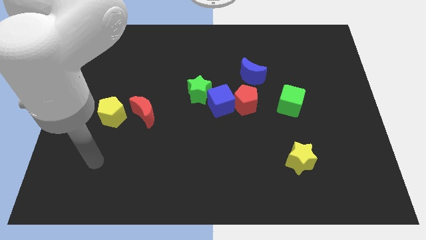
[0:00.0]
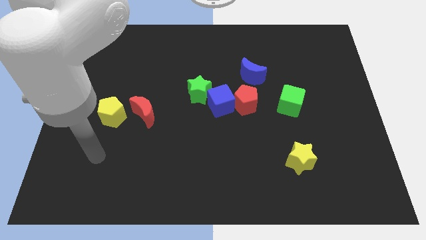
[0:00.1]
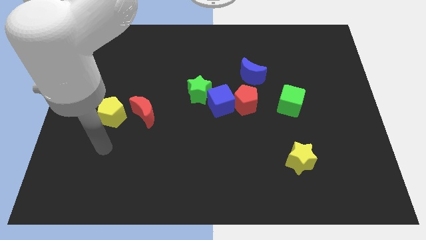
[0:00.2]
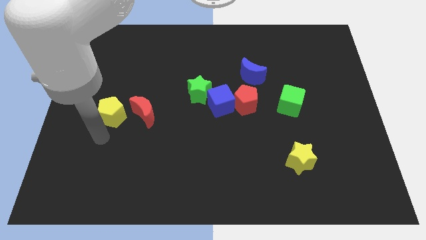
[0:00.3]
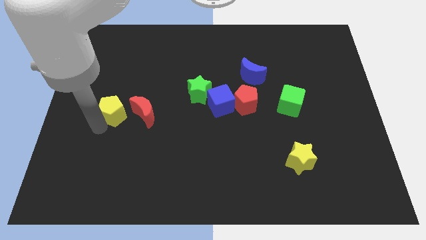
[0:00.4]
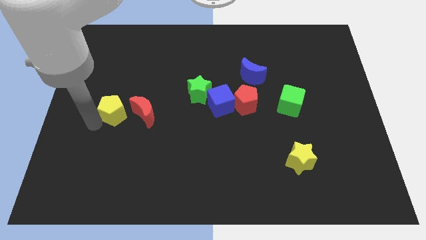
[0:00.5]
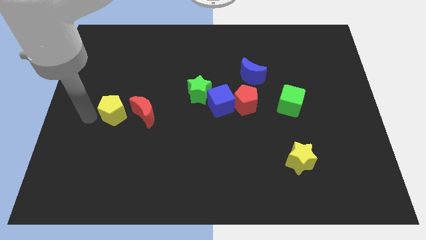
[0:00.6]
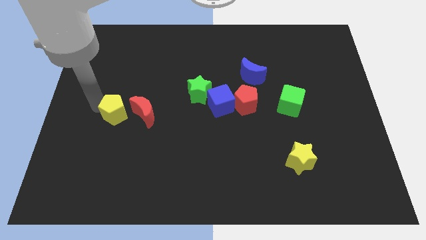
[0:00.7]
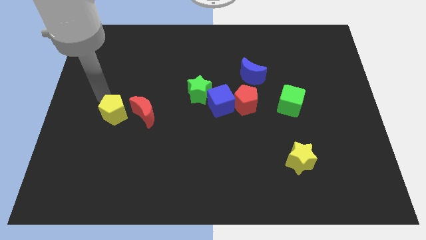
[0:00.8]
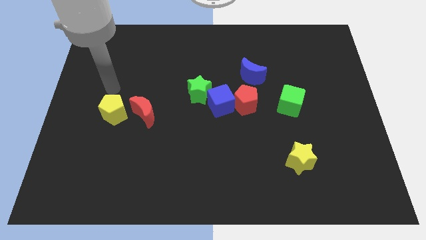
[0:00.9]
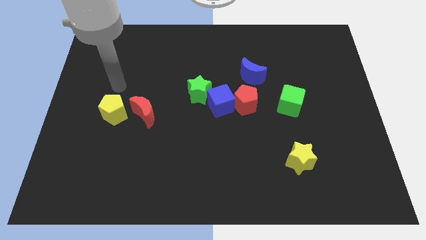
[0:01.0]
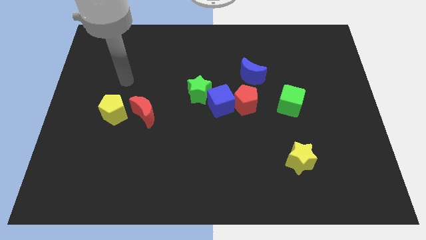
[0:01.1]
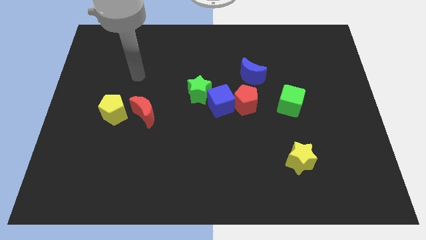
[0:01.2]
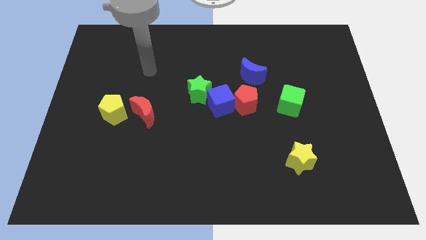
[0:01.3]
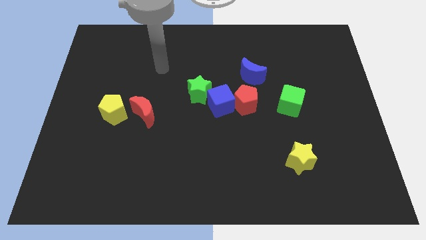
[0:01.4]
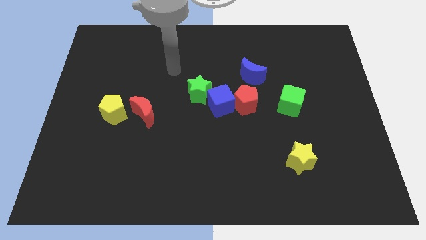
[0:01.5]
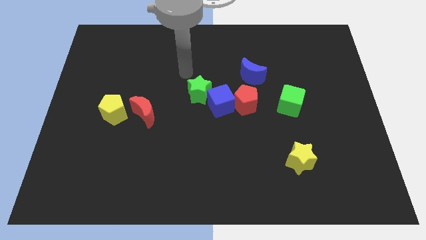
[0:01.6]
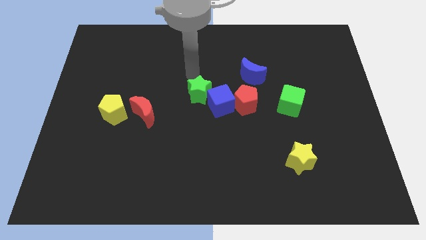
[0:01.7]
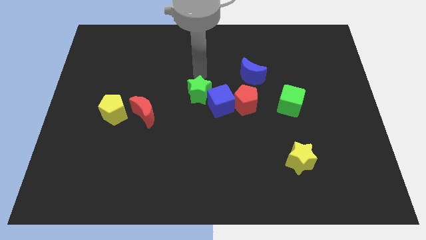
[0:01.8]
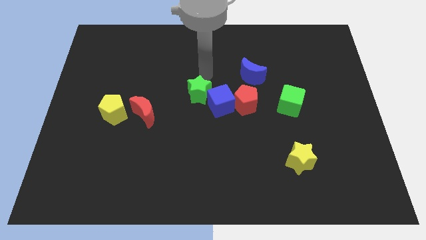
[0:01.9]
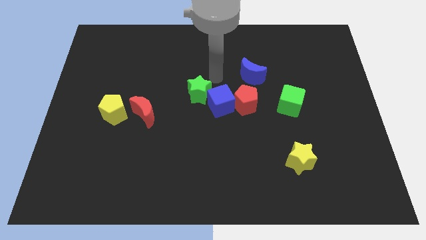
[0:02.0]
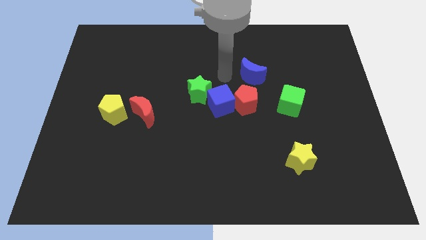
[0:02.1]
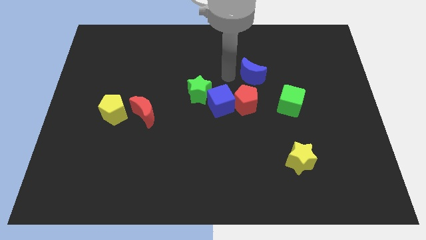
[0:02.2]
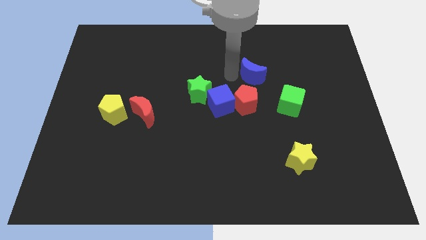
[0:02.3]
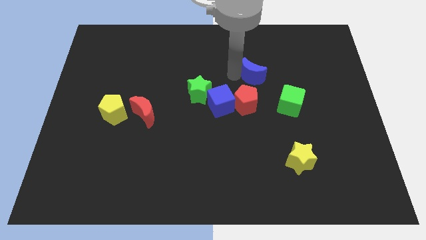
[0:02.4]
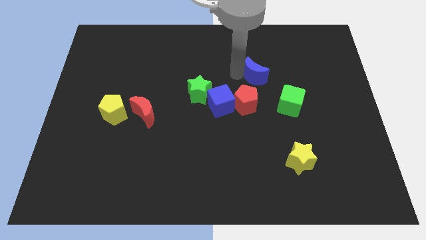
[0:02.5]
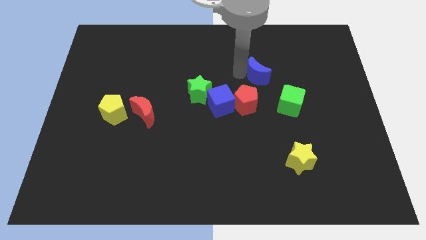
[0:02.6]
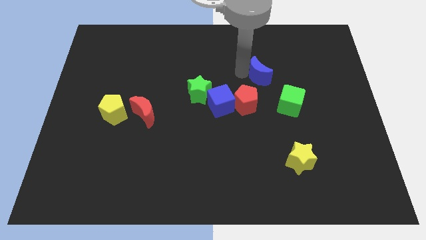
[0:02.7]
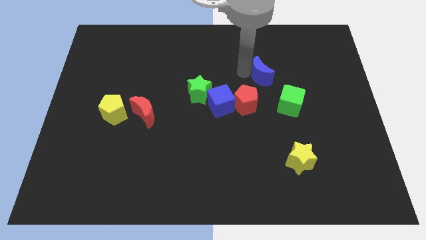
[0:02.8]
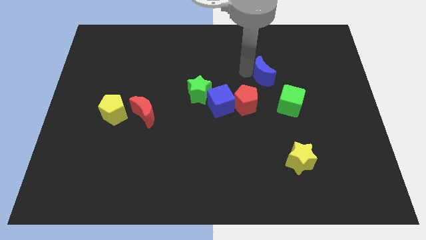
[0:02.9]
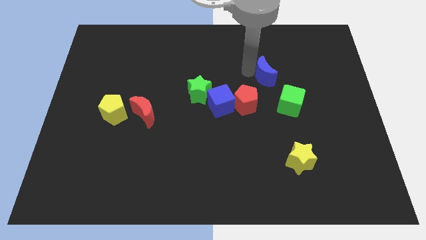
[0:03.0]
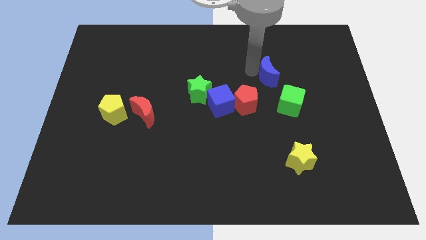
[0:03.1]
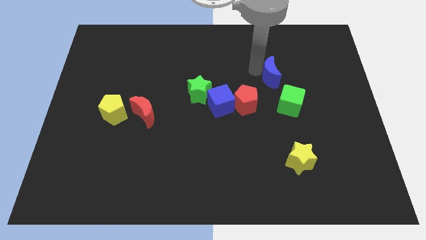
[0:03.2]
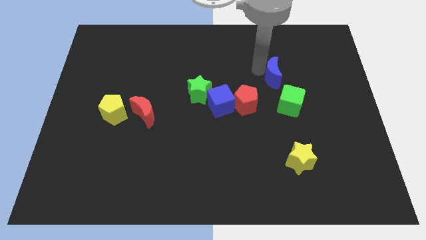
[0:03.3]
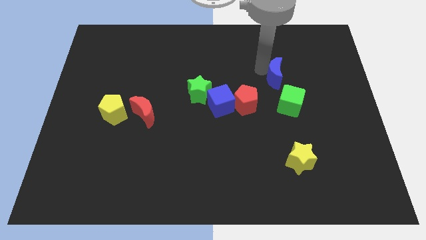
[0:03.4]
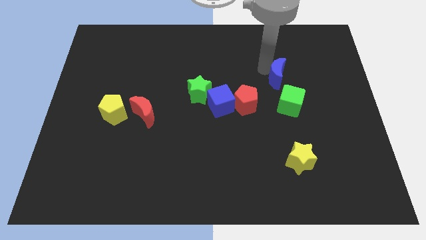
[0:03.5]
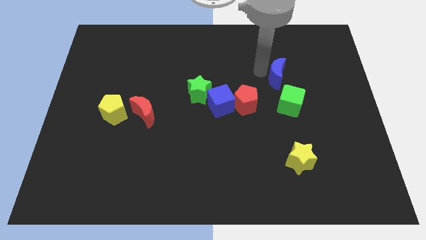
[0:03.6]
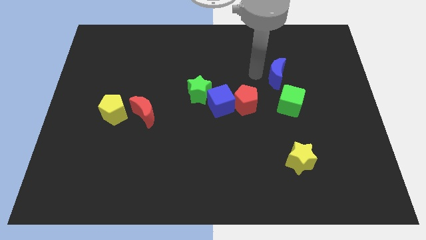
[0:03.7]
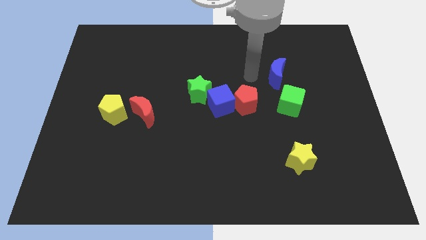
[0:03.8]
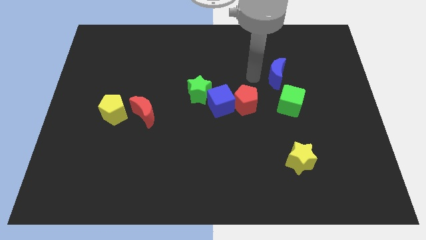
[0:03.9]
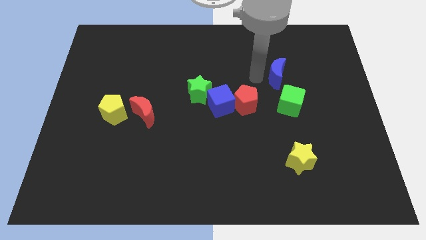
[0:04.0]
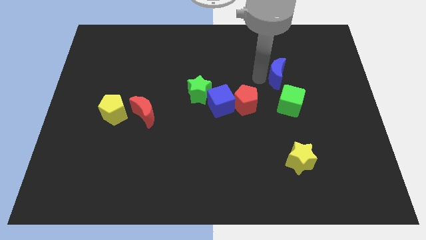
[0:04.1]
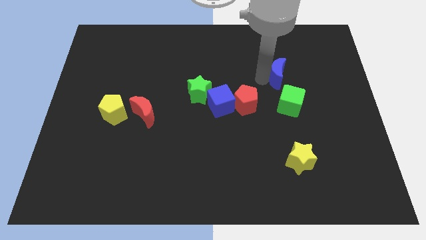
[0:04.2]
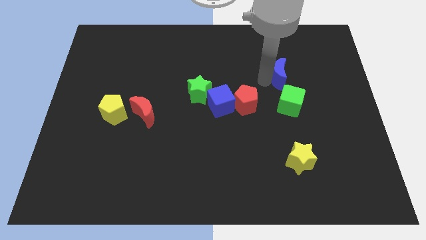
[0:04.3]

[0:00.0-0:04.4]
slightly push the blue moon right

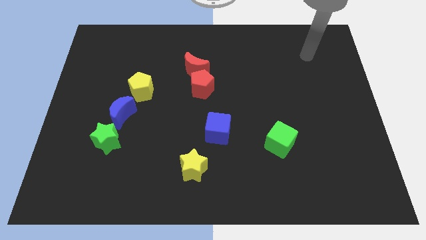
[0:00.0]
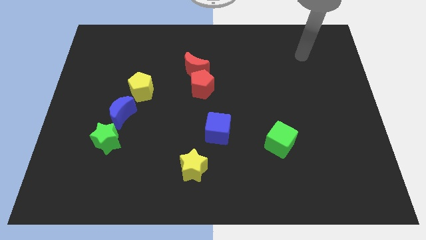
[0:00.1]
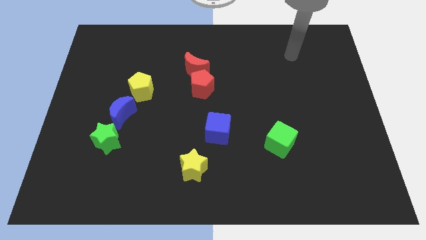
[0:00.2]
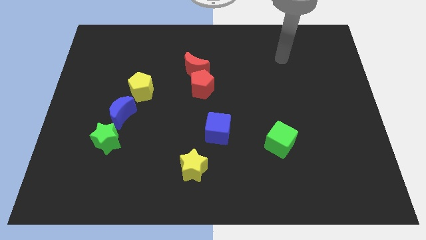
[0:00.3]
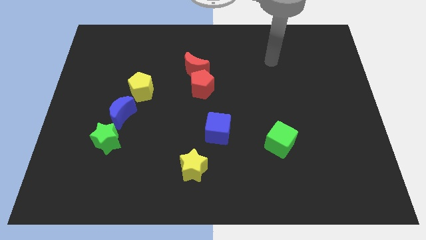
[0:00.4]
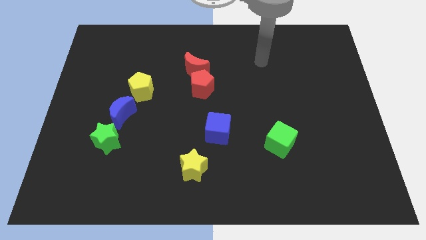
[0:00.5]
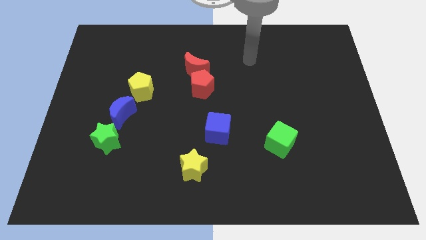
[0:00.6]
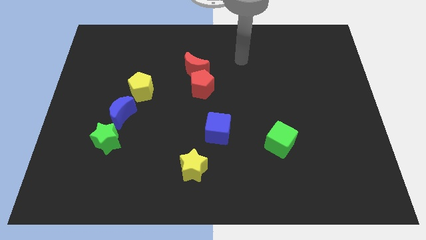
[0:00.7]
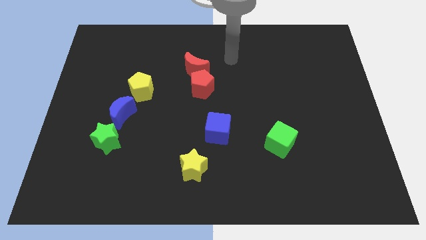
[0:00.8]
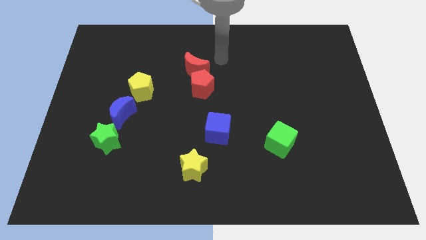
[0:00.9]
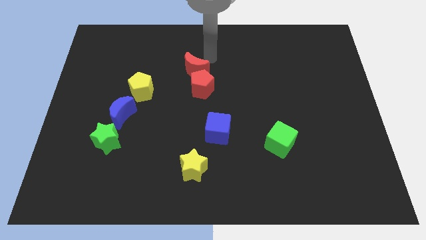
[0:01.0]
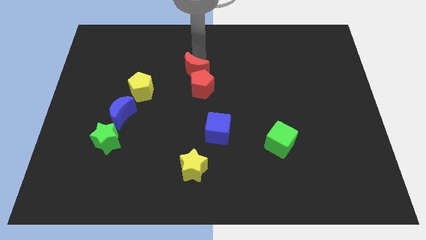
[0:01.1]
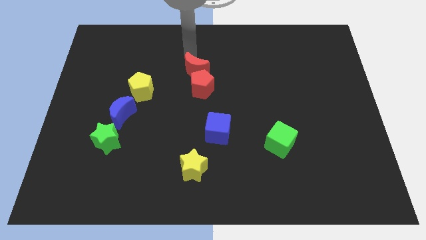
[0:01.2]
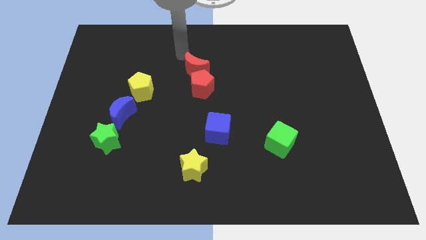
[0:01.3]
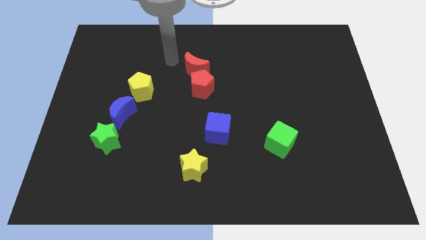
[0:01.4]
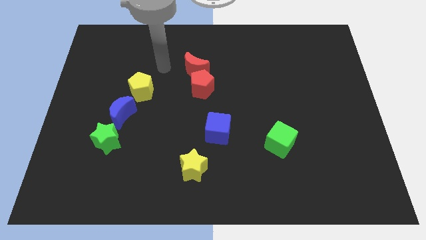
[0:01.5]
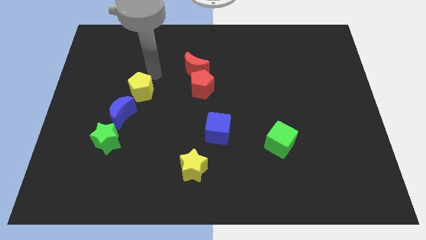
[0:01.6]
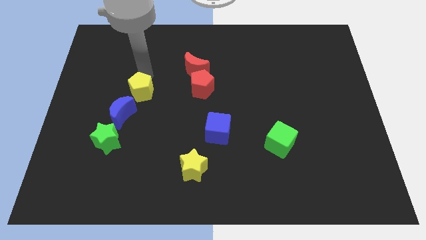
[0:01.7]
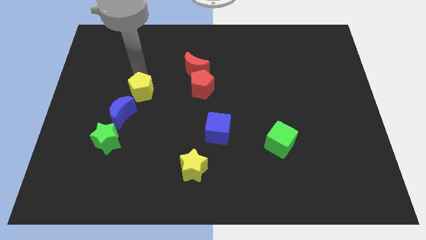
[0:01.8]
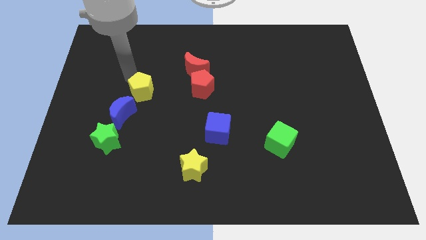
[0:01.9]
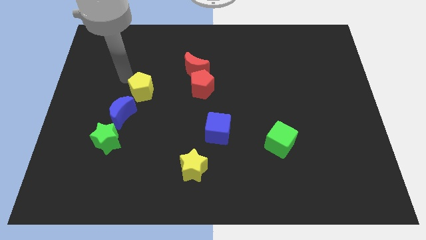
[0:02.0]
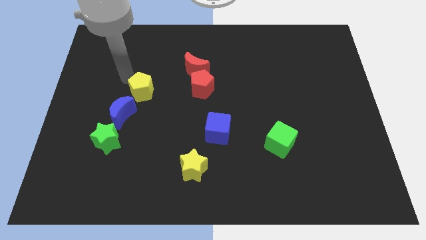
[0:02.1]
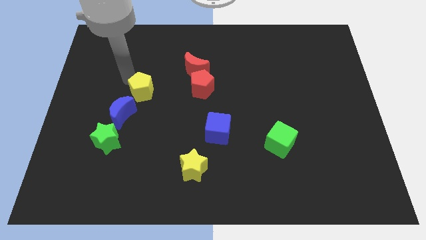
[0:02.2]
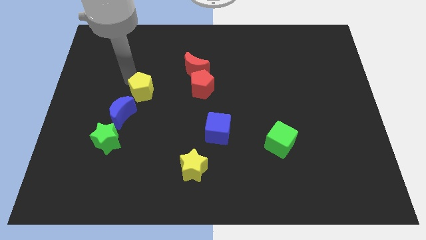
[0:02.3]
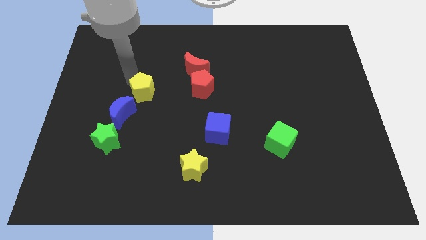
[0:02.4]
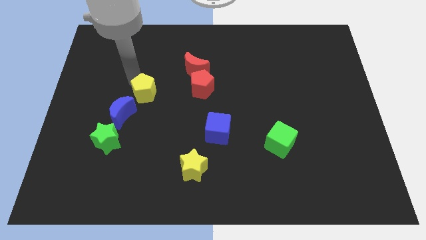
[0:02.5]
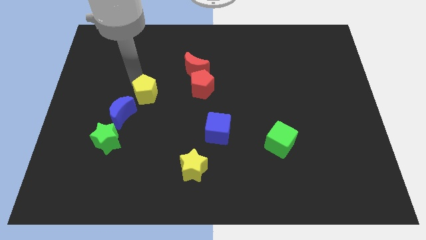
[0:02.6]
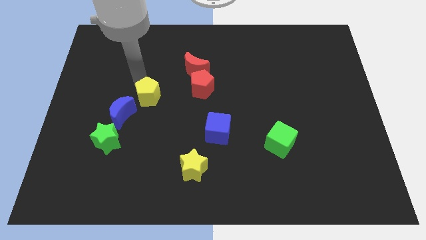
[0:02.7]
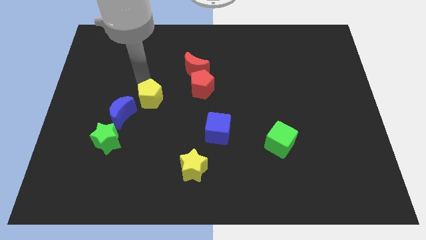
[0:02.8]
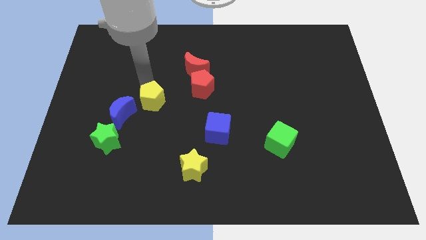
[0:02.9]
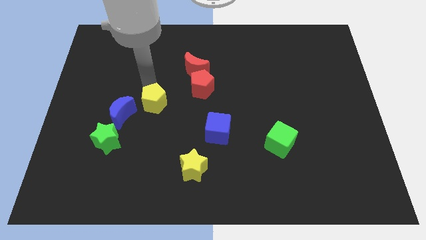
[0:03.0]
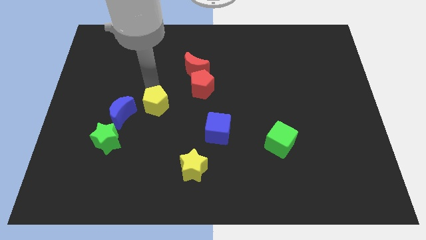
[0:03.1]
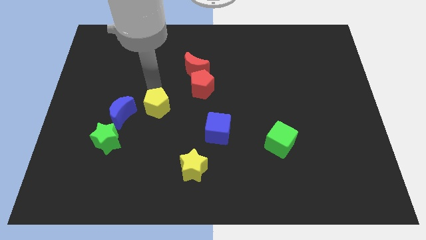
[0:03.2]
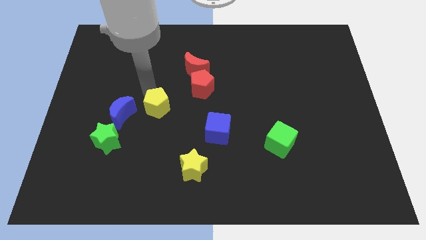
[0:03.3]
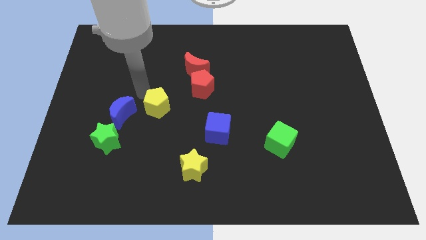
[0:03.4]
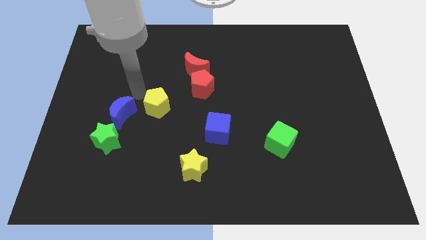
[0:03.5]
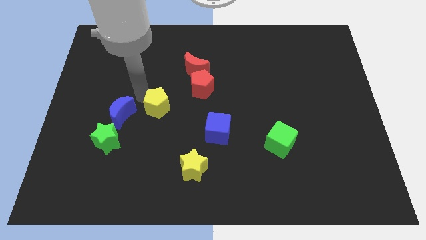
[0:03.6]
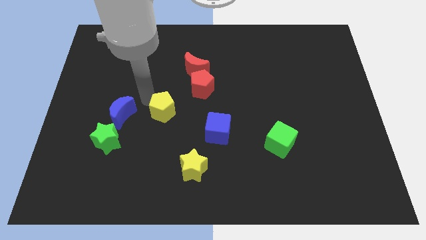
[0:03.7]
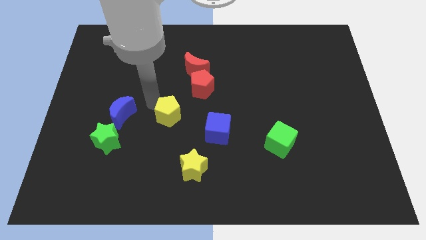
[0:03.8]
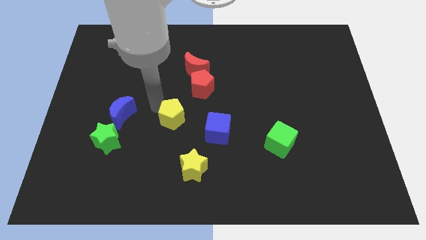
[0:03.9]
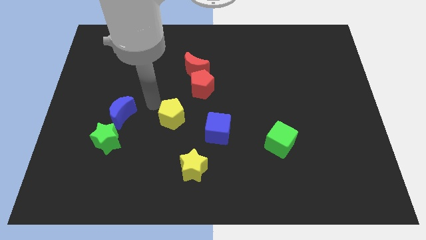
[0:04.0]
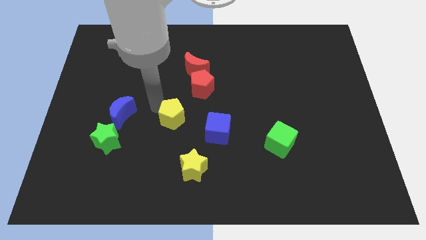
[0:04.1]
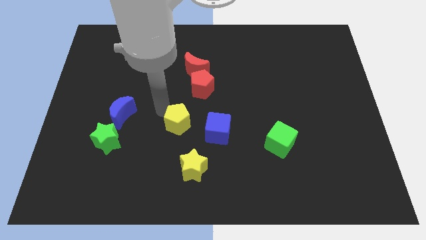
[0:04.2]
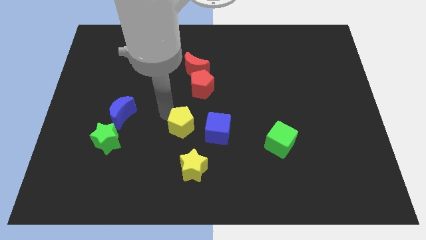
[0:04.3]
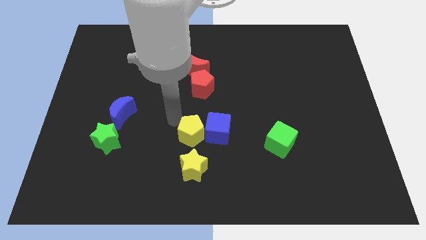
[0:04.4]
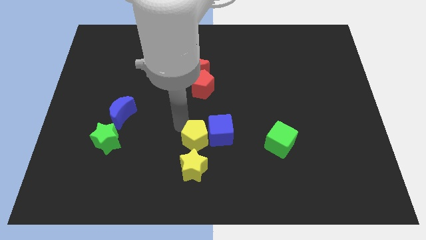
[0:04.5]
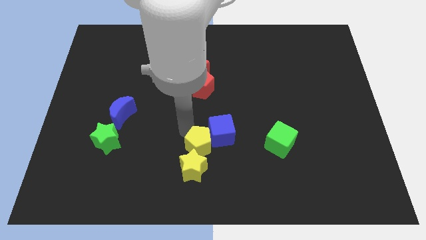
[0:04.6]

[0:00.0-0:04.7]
slide the yellow pentagon downwards and then right
